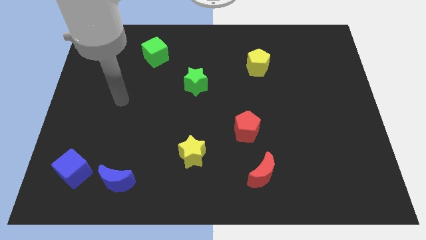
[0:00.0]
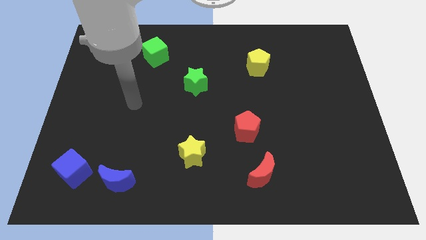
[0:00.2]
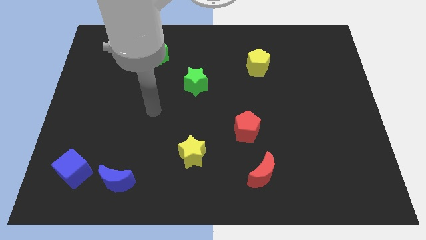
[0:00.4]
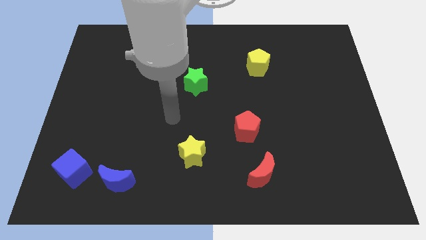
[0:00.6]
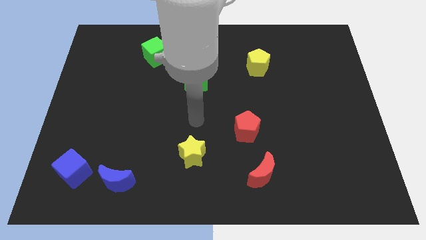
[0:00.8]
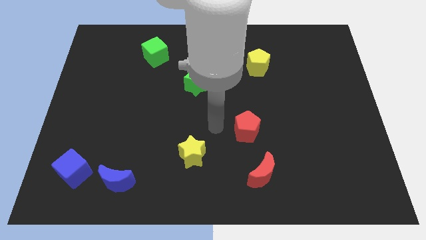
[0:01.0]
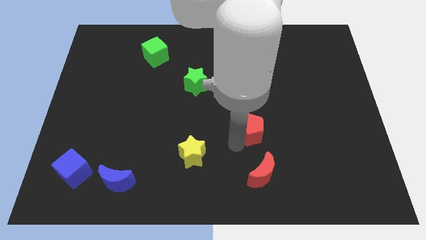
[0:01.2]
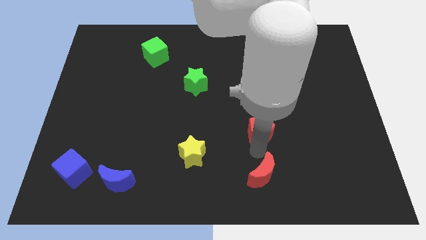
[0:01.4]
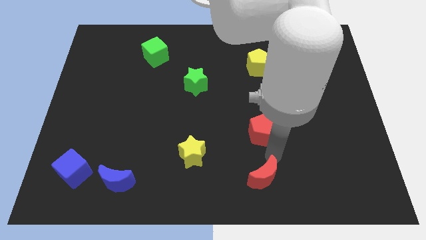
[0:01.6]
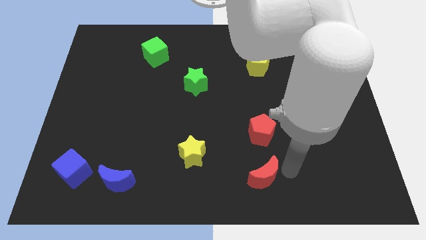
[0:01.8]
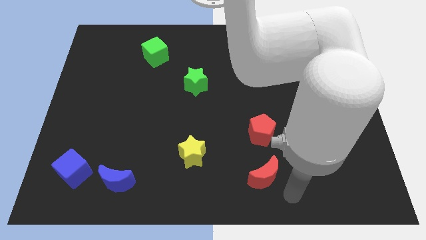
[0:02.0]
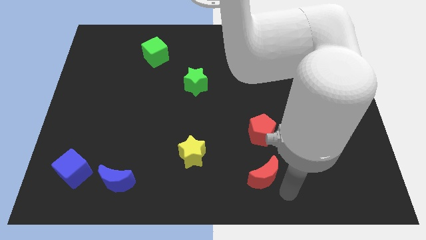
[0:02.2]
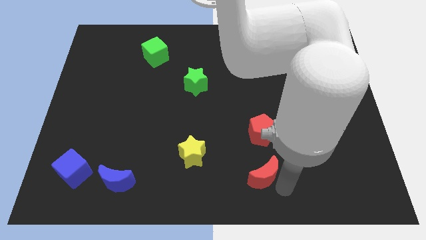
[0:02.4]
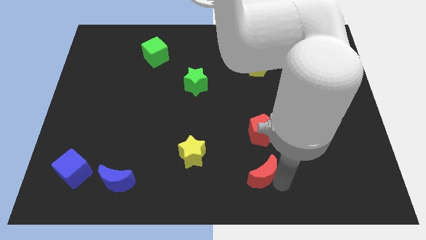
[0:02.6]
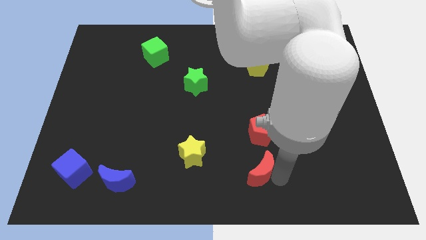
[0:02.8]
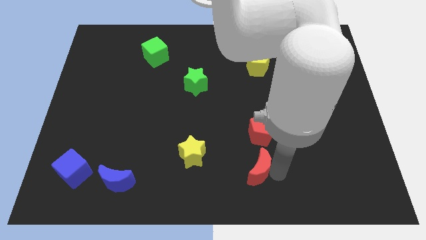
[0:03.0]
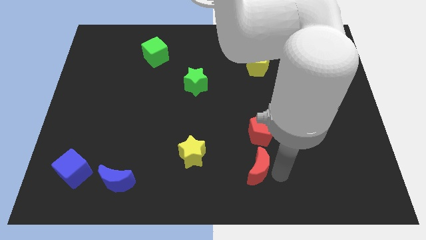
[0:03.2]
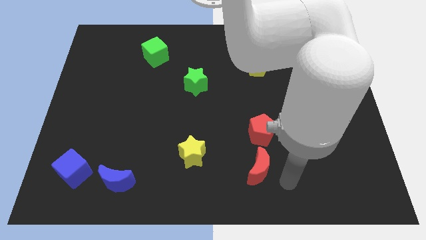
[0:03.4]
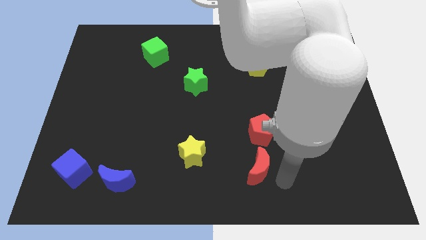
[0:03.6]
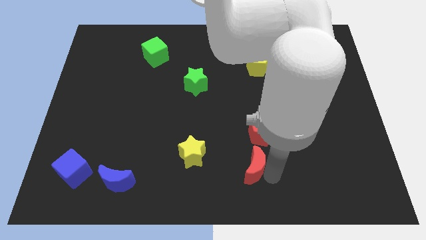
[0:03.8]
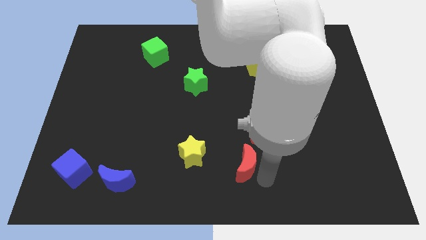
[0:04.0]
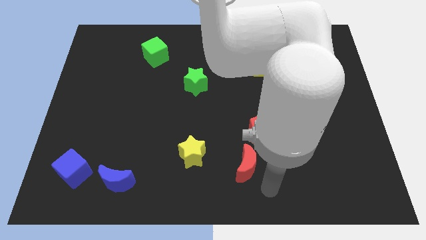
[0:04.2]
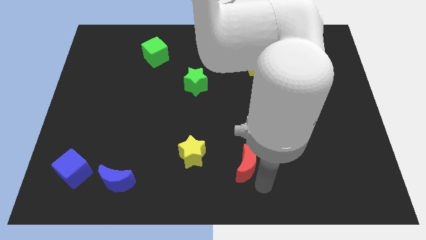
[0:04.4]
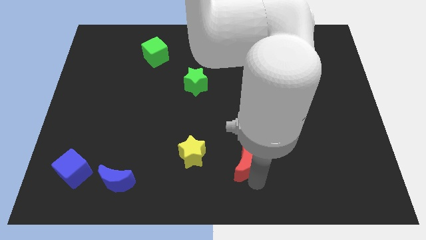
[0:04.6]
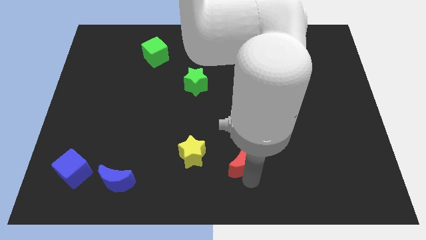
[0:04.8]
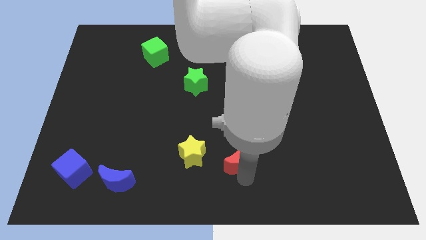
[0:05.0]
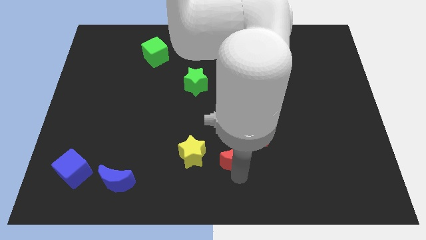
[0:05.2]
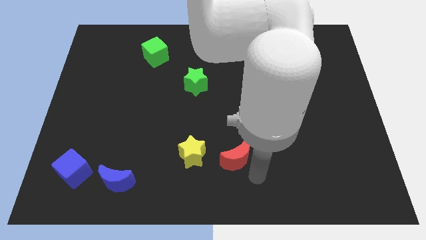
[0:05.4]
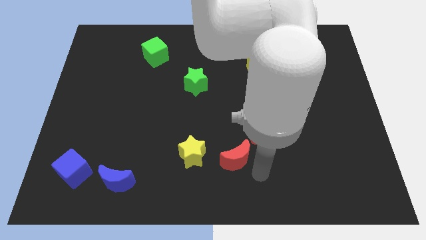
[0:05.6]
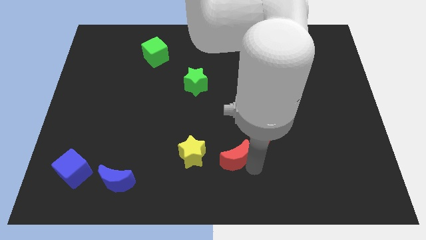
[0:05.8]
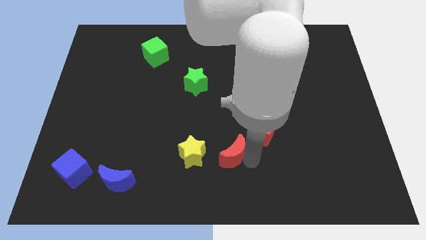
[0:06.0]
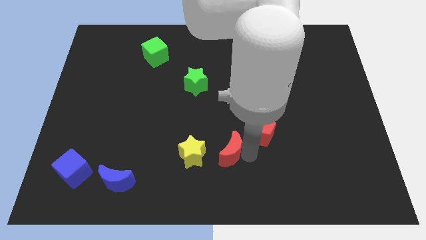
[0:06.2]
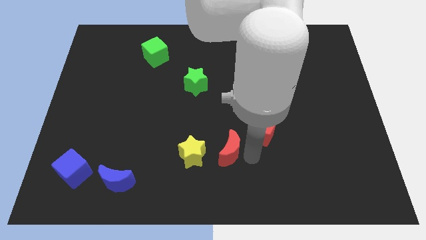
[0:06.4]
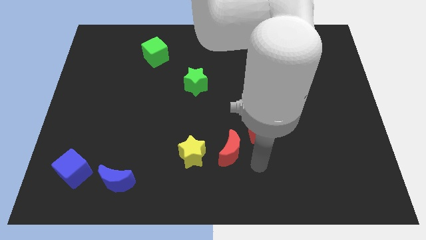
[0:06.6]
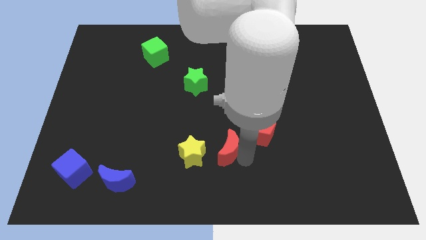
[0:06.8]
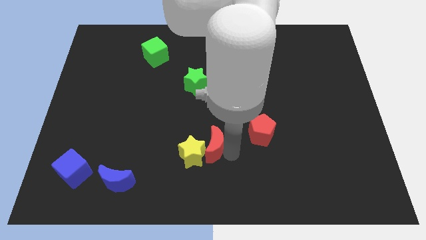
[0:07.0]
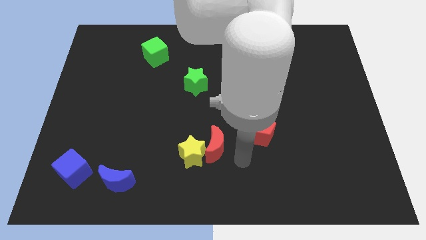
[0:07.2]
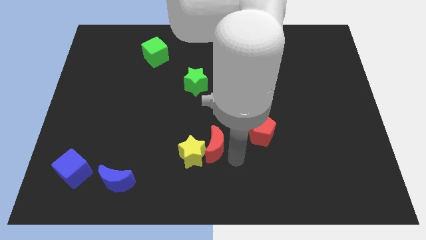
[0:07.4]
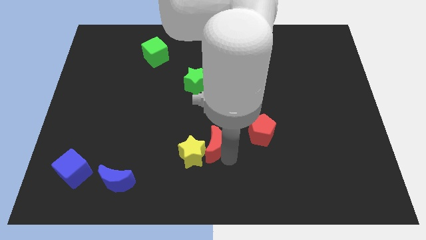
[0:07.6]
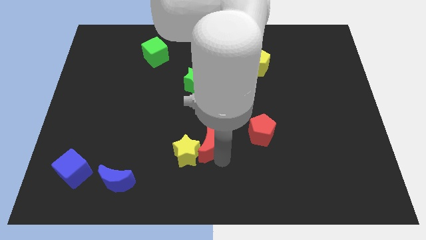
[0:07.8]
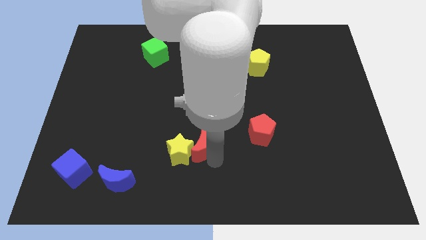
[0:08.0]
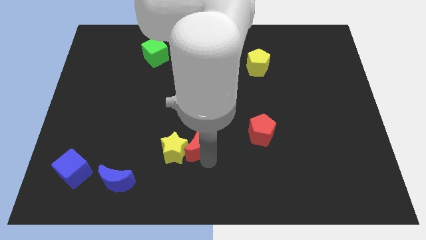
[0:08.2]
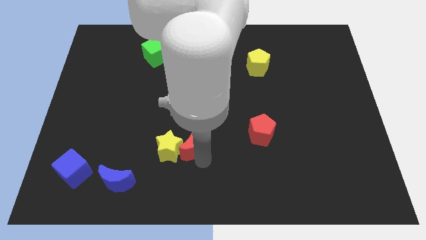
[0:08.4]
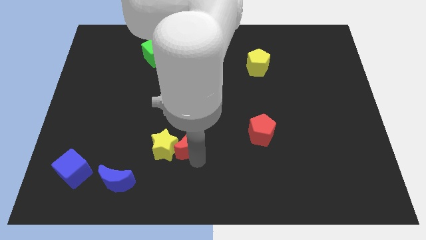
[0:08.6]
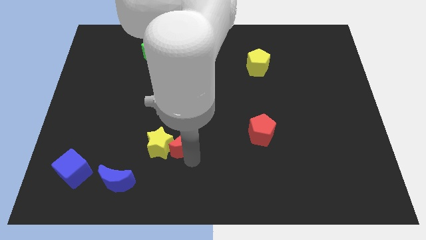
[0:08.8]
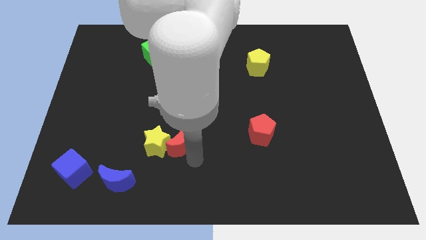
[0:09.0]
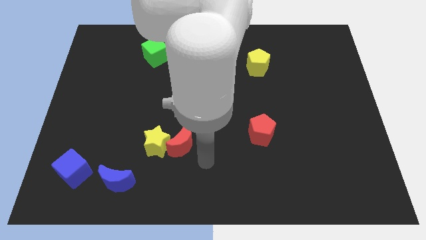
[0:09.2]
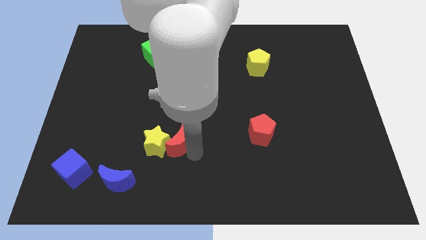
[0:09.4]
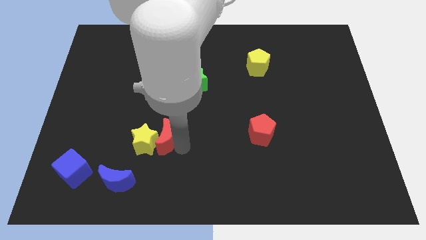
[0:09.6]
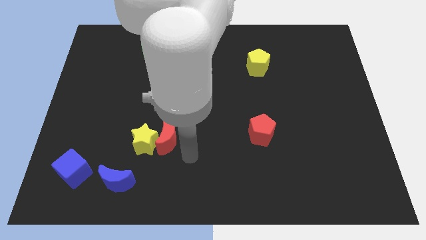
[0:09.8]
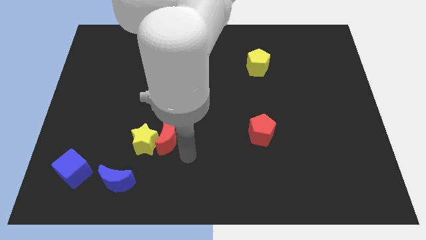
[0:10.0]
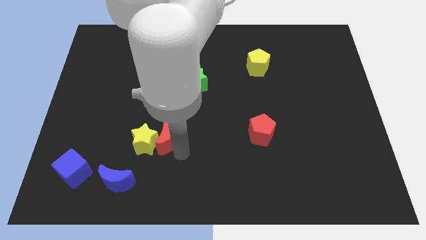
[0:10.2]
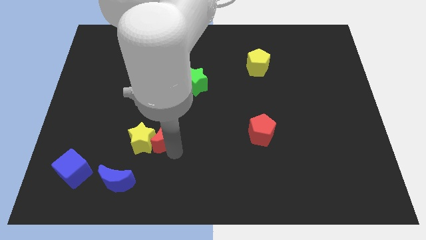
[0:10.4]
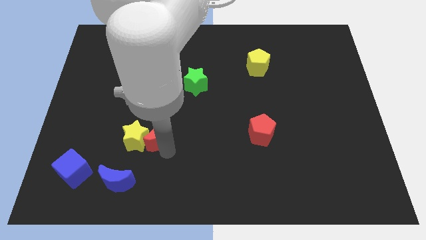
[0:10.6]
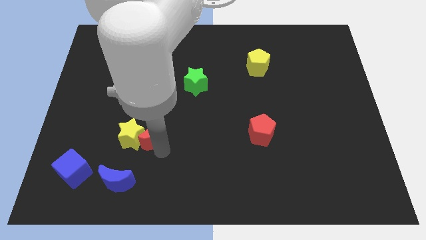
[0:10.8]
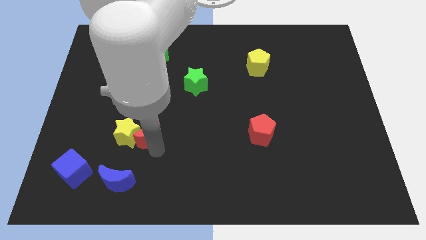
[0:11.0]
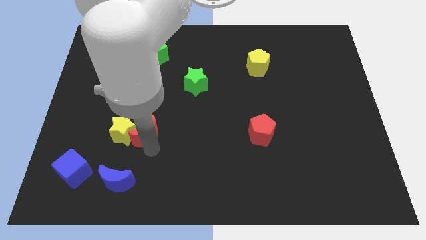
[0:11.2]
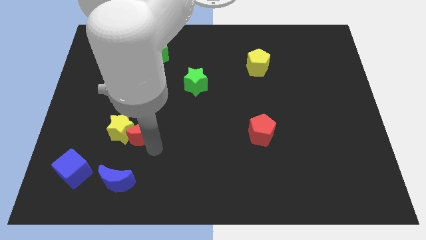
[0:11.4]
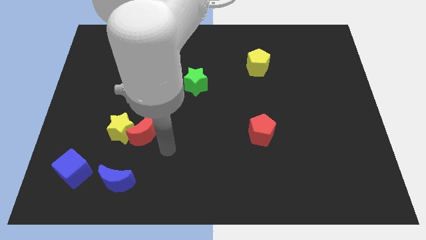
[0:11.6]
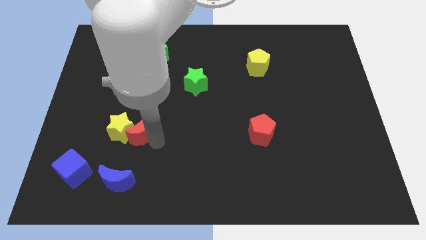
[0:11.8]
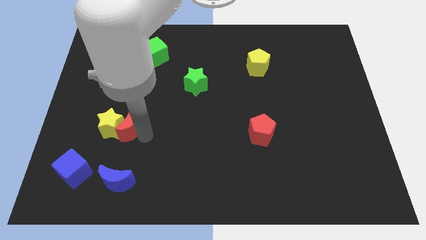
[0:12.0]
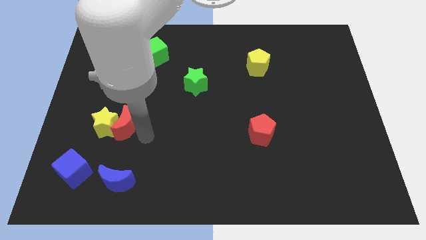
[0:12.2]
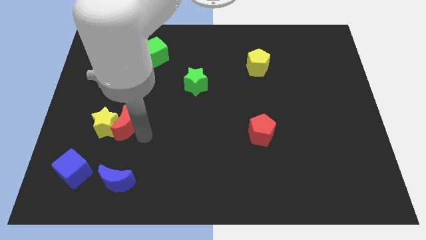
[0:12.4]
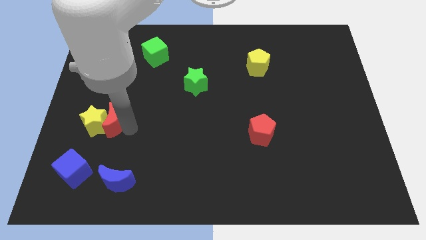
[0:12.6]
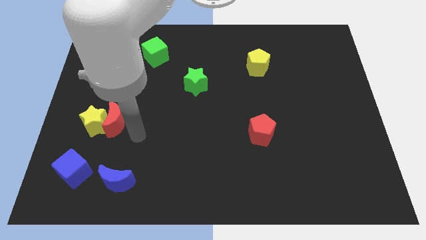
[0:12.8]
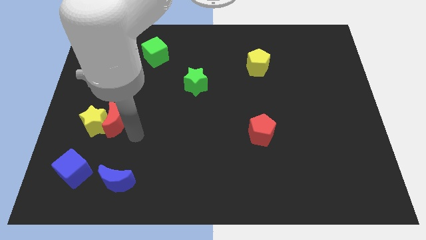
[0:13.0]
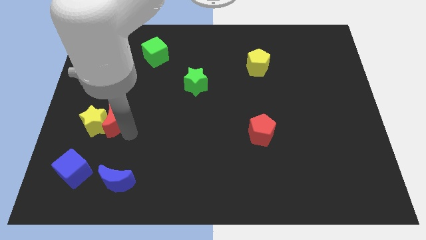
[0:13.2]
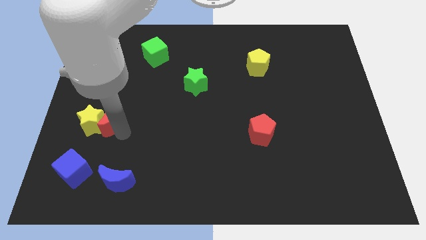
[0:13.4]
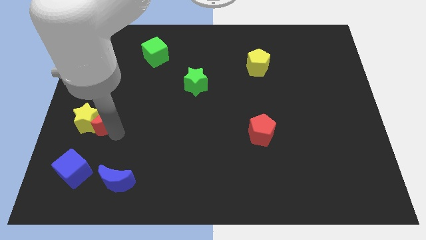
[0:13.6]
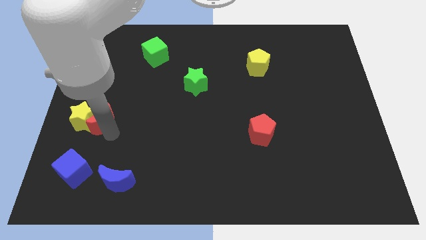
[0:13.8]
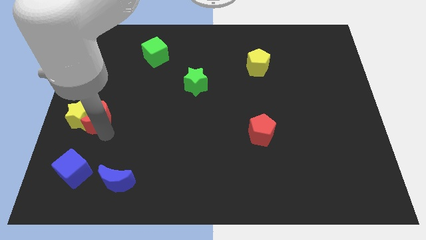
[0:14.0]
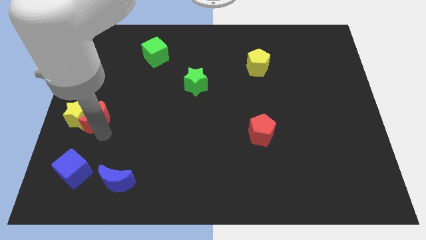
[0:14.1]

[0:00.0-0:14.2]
move the red moon to the center left
